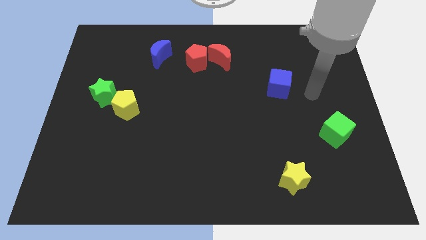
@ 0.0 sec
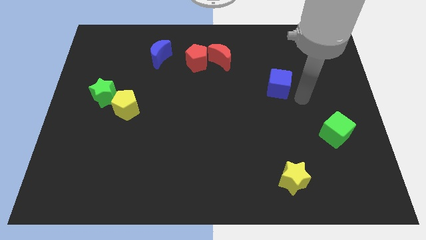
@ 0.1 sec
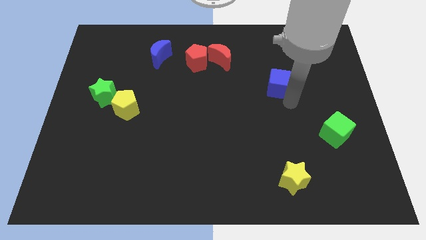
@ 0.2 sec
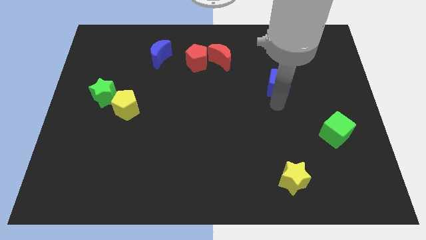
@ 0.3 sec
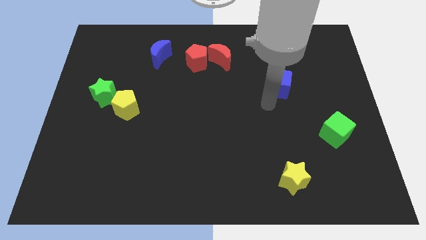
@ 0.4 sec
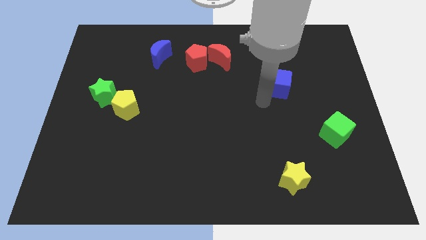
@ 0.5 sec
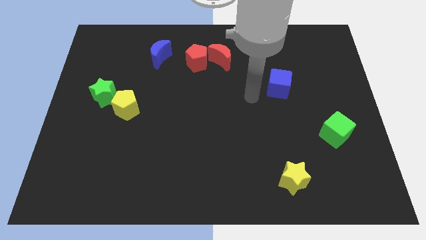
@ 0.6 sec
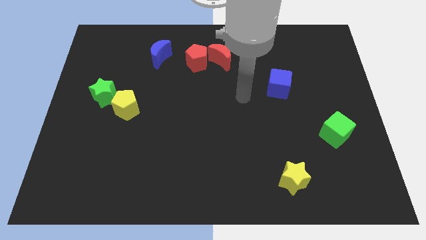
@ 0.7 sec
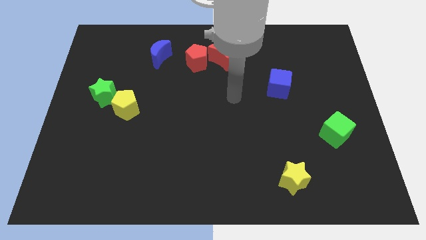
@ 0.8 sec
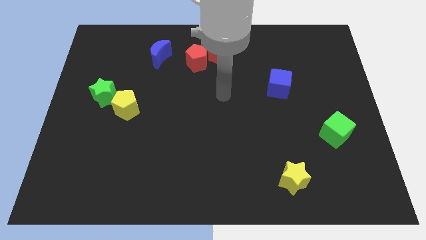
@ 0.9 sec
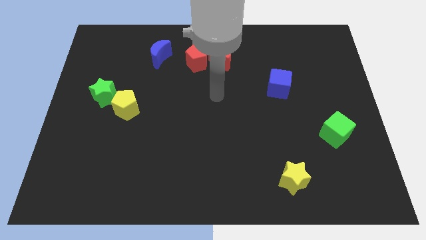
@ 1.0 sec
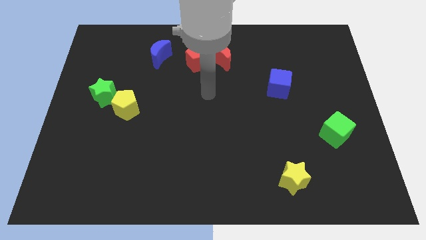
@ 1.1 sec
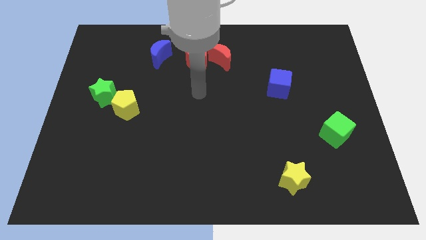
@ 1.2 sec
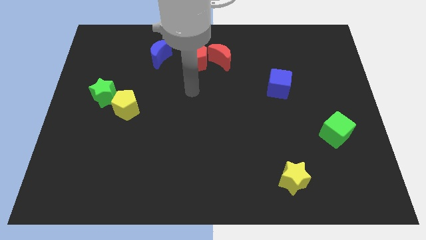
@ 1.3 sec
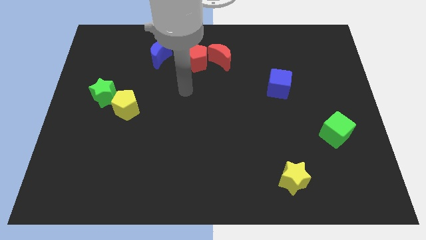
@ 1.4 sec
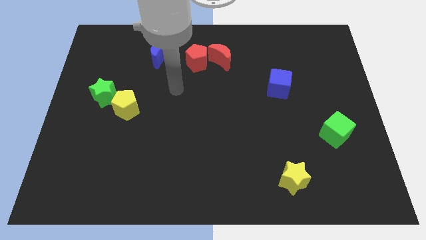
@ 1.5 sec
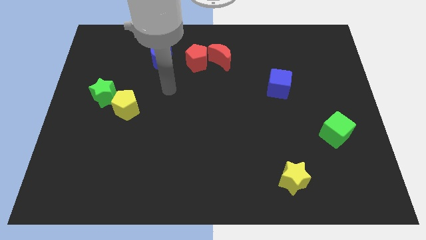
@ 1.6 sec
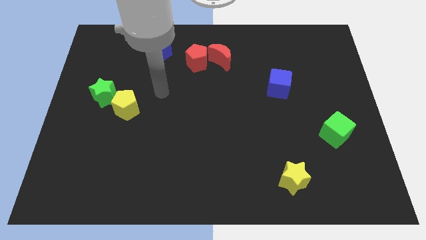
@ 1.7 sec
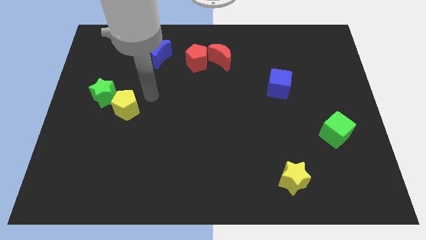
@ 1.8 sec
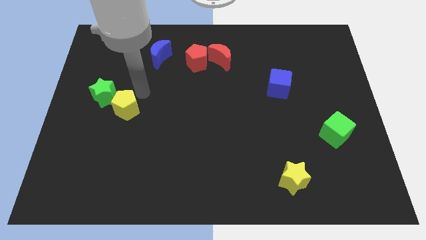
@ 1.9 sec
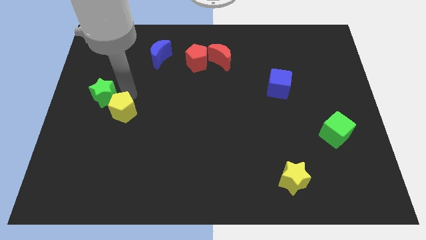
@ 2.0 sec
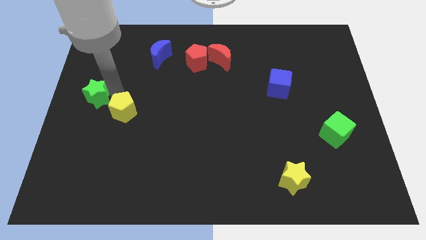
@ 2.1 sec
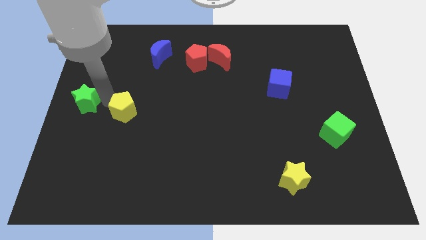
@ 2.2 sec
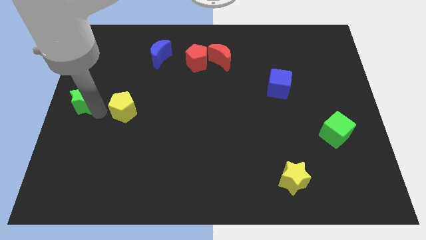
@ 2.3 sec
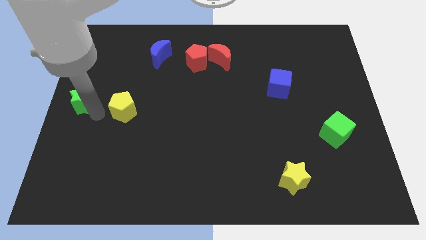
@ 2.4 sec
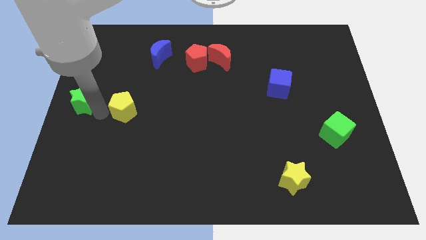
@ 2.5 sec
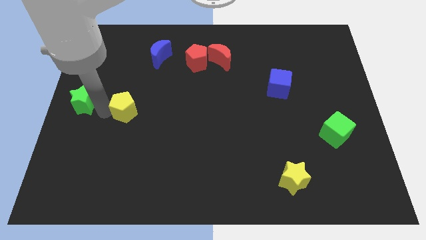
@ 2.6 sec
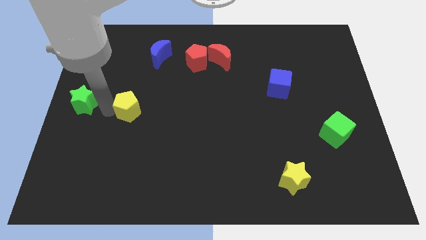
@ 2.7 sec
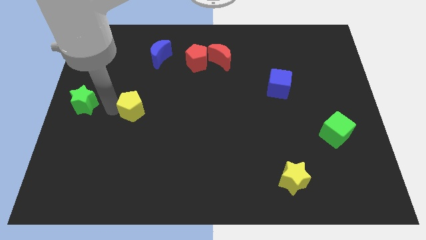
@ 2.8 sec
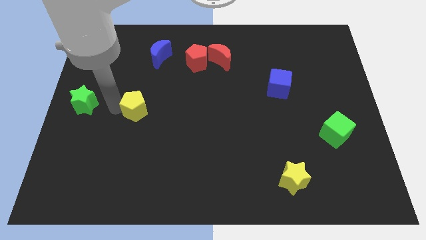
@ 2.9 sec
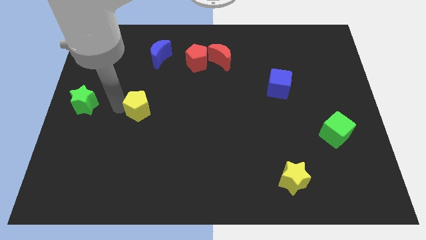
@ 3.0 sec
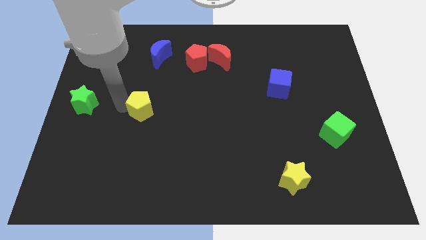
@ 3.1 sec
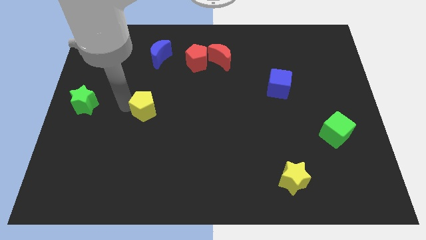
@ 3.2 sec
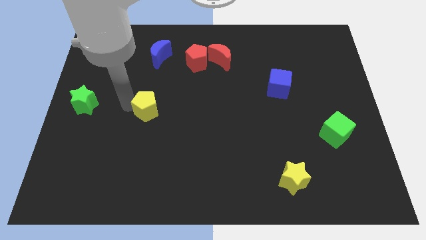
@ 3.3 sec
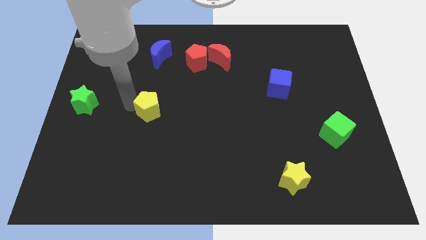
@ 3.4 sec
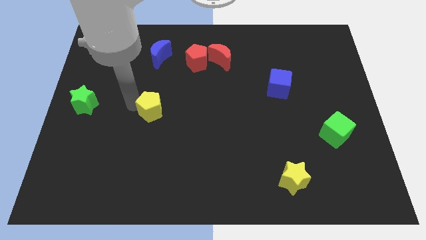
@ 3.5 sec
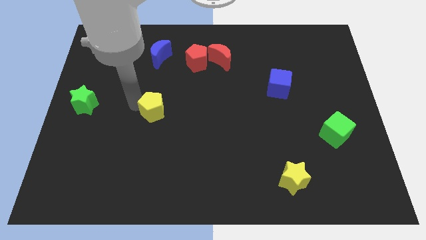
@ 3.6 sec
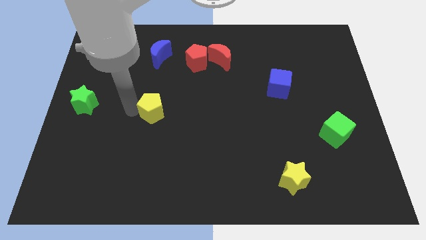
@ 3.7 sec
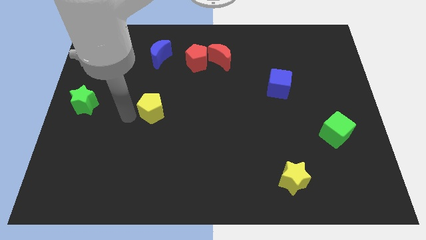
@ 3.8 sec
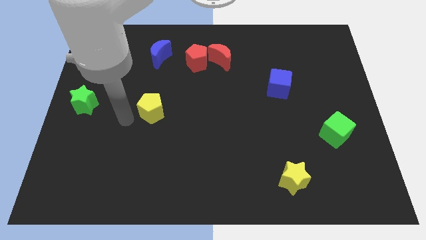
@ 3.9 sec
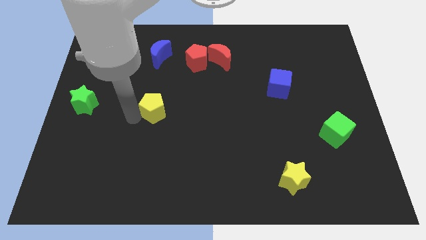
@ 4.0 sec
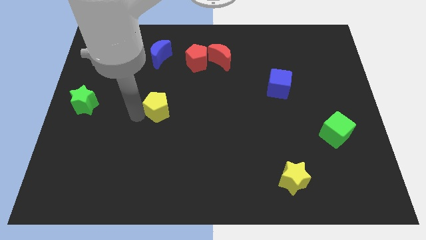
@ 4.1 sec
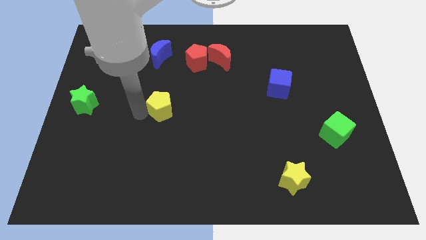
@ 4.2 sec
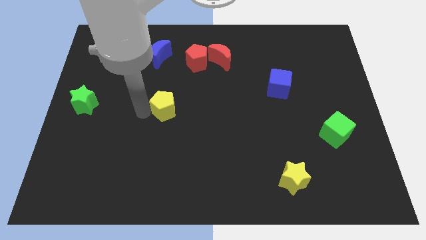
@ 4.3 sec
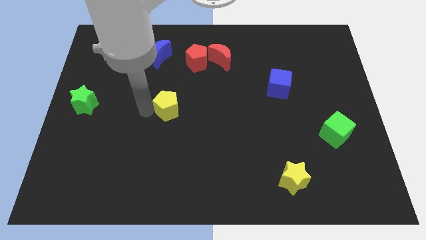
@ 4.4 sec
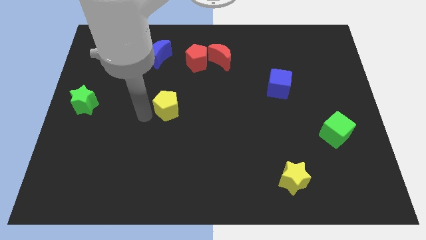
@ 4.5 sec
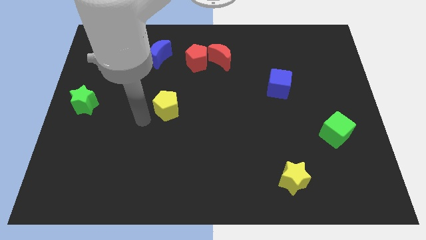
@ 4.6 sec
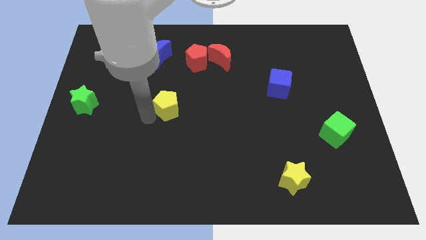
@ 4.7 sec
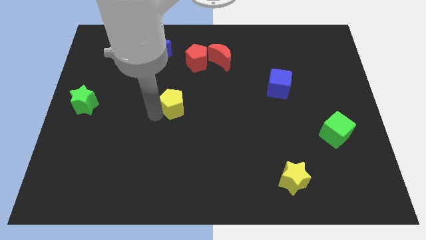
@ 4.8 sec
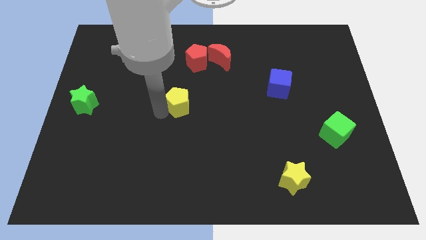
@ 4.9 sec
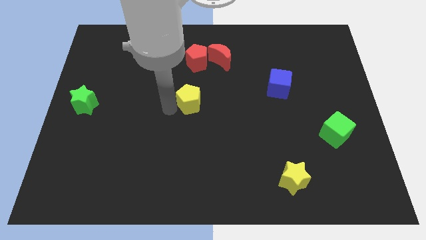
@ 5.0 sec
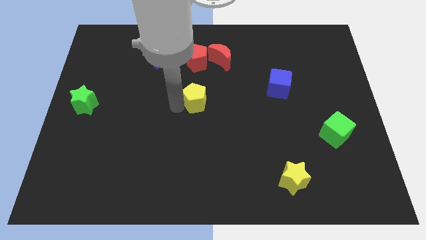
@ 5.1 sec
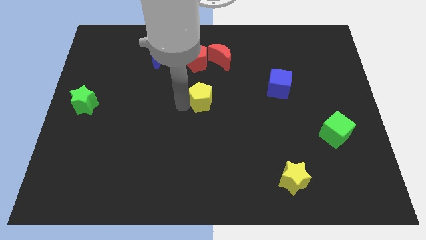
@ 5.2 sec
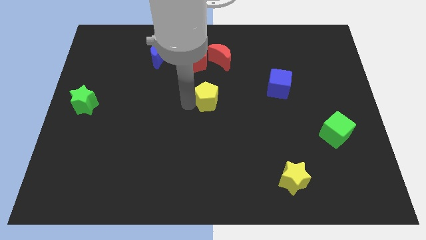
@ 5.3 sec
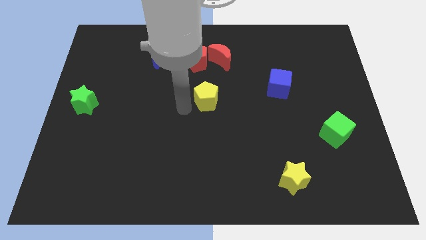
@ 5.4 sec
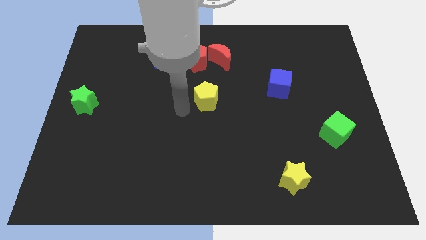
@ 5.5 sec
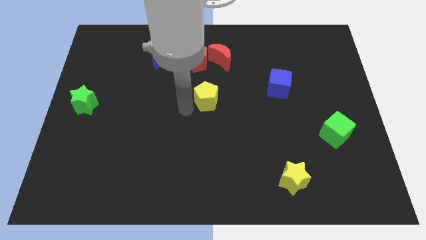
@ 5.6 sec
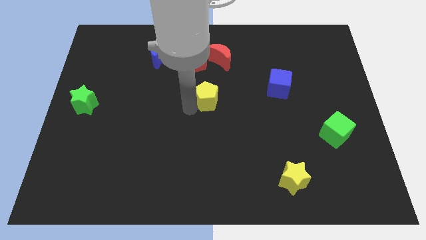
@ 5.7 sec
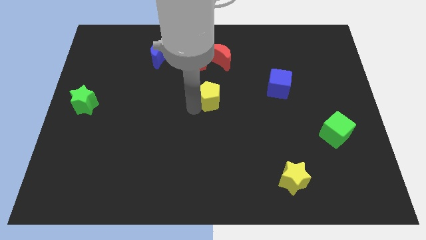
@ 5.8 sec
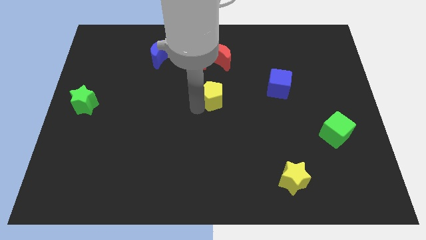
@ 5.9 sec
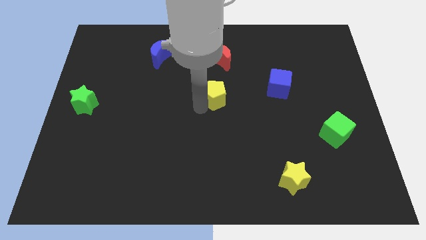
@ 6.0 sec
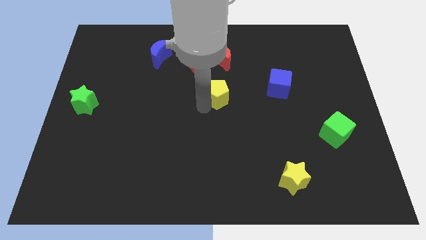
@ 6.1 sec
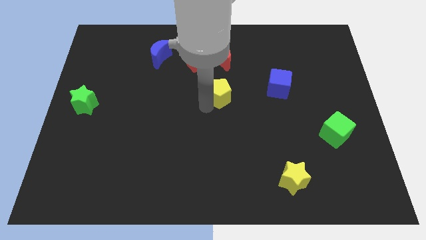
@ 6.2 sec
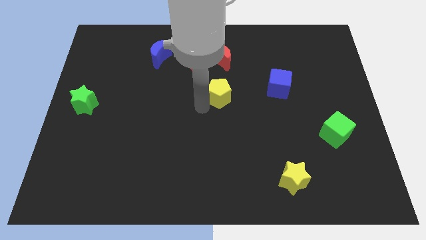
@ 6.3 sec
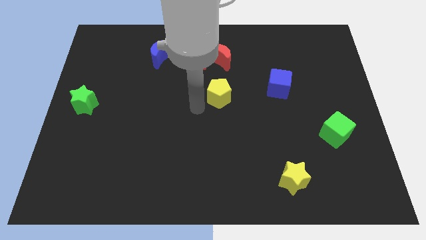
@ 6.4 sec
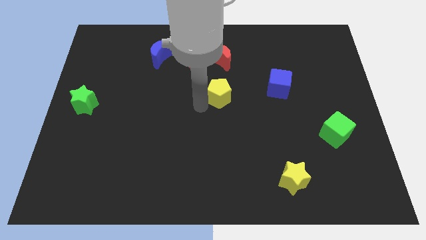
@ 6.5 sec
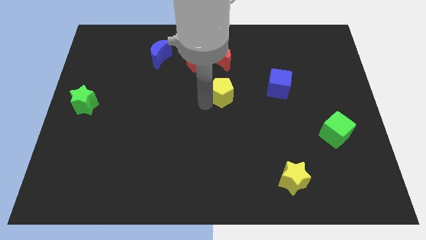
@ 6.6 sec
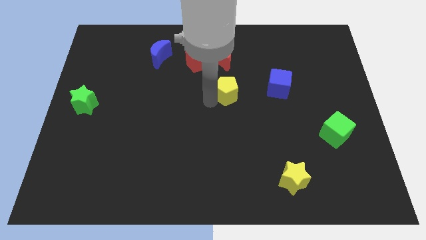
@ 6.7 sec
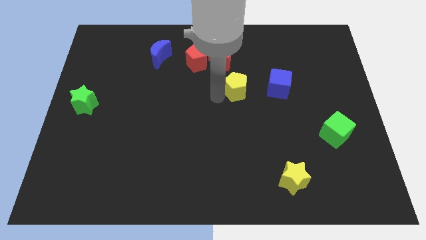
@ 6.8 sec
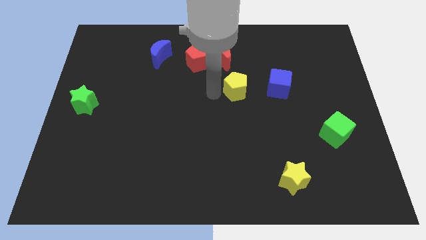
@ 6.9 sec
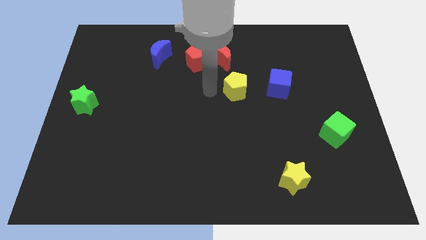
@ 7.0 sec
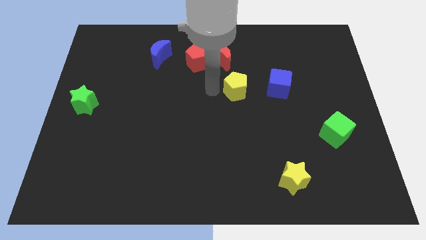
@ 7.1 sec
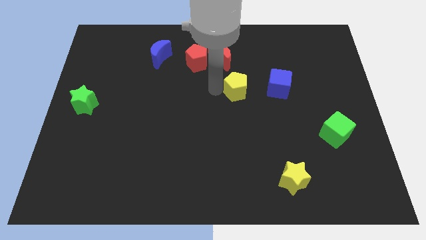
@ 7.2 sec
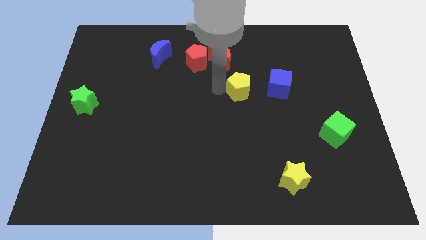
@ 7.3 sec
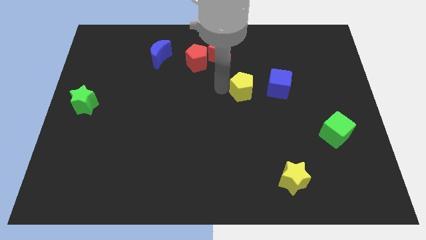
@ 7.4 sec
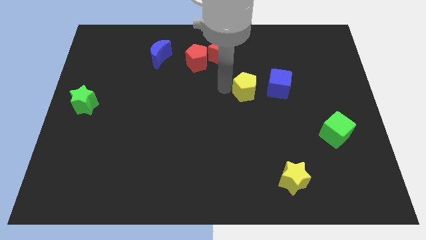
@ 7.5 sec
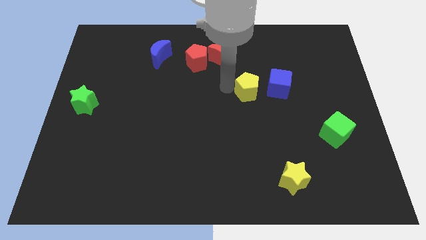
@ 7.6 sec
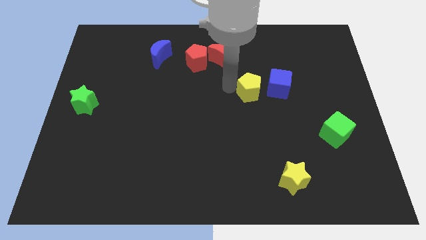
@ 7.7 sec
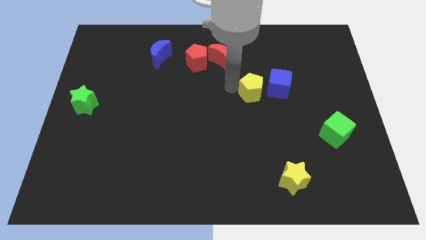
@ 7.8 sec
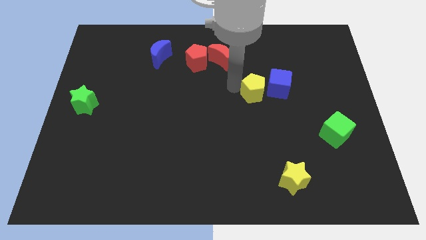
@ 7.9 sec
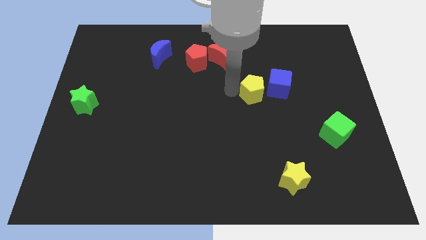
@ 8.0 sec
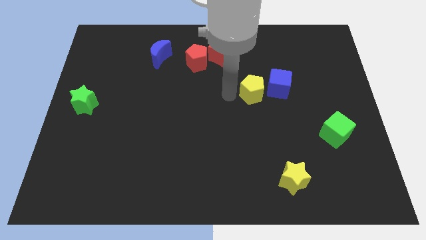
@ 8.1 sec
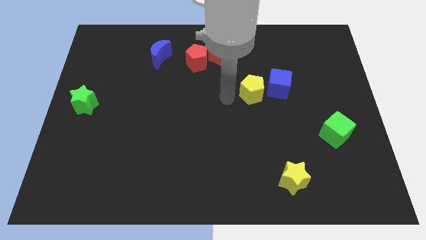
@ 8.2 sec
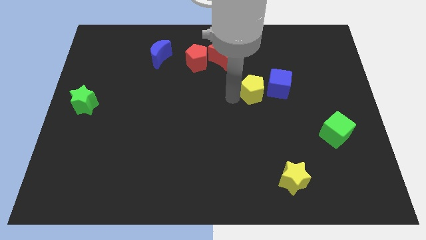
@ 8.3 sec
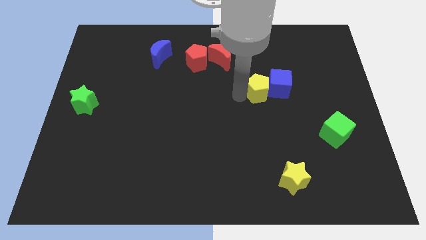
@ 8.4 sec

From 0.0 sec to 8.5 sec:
push the yellow pentagon towards the blue cube
